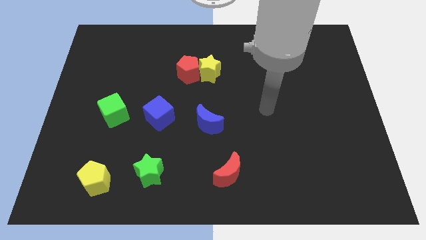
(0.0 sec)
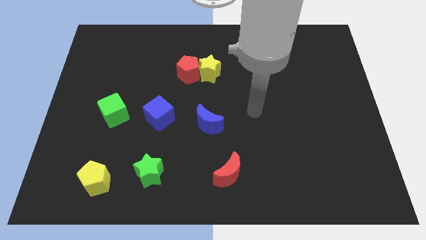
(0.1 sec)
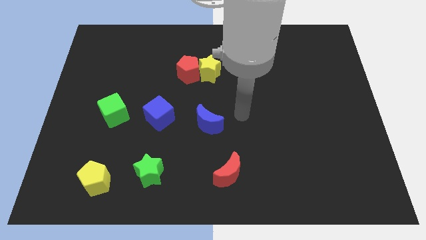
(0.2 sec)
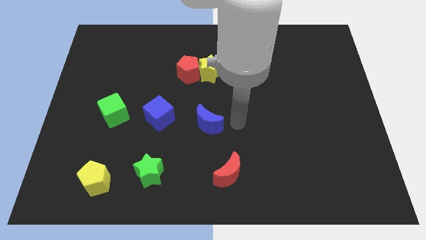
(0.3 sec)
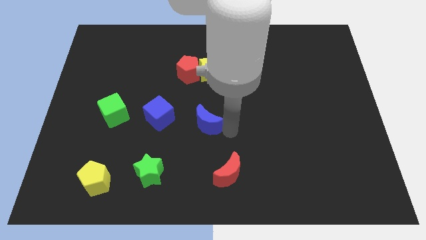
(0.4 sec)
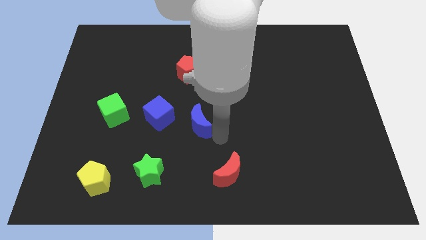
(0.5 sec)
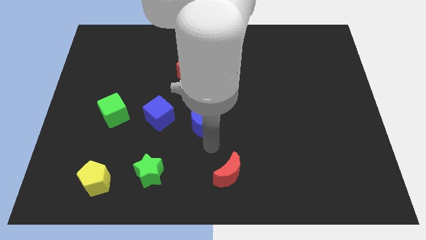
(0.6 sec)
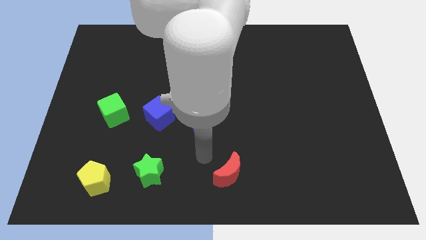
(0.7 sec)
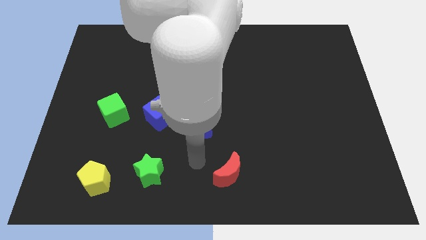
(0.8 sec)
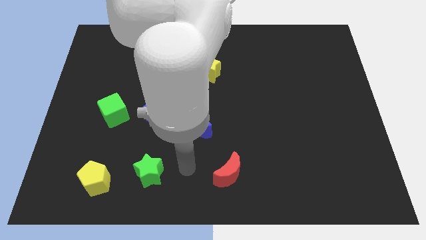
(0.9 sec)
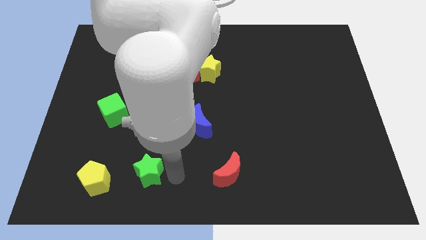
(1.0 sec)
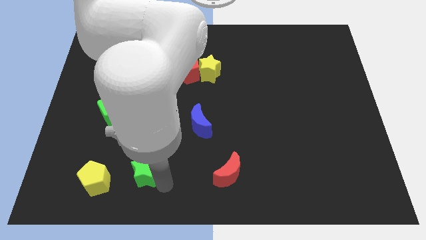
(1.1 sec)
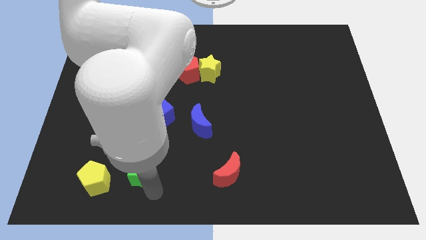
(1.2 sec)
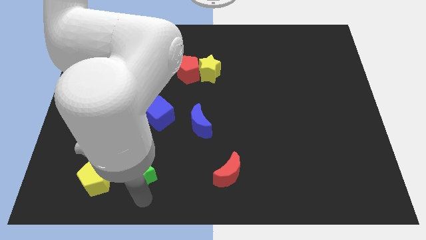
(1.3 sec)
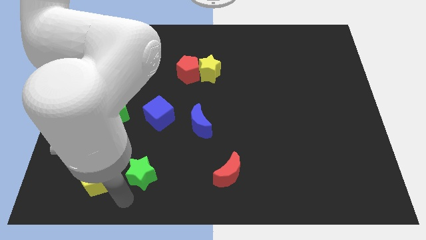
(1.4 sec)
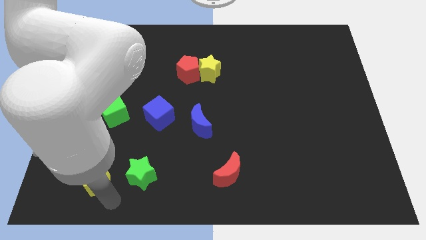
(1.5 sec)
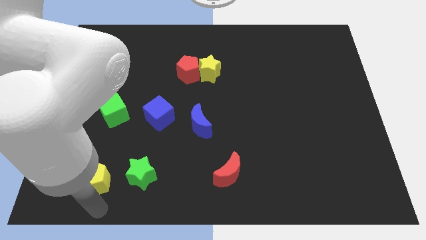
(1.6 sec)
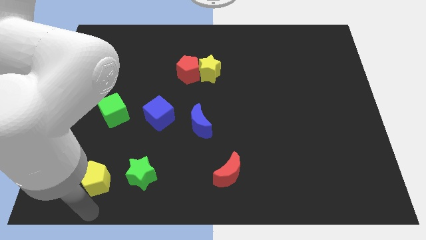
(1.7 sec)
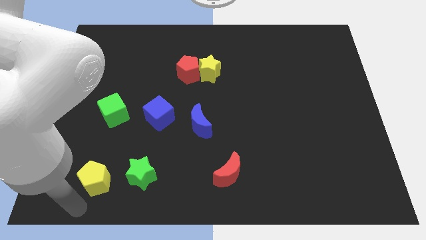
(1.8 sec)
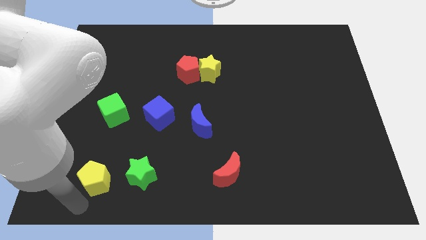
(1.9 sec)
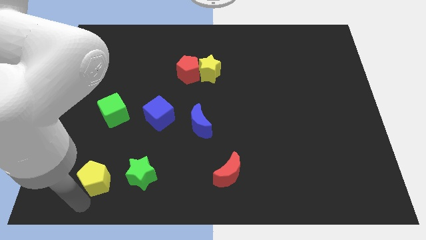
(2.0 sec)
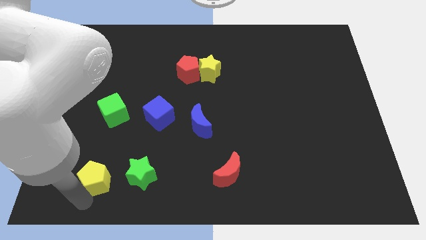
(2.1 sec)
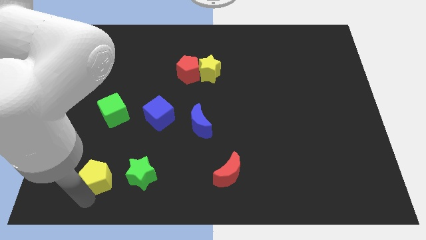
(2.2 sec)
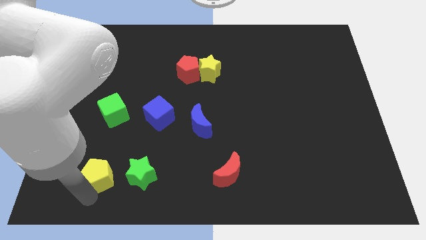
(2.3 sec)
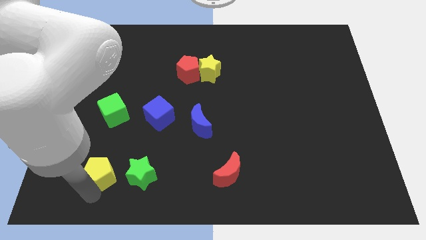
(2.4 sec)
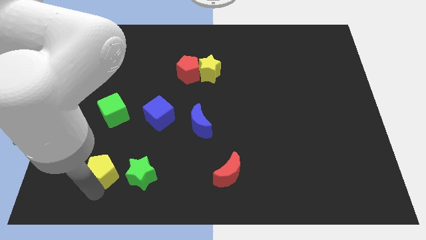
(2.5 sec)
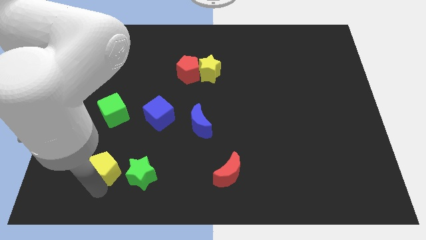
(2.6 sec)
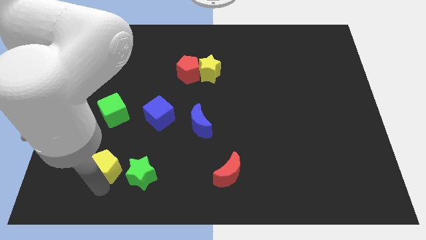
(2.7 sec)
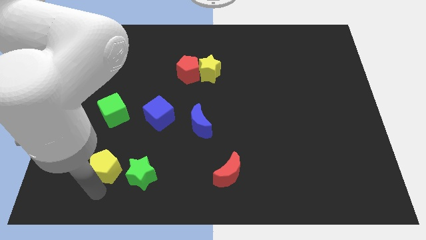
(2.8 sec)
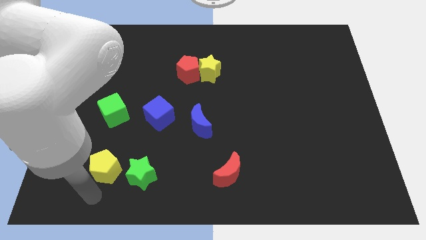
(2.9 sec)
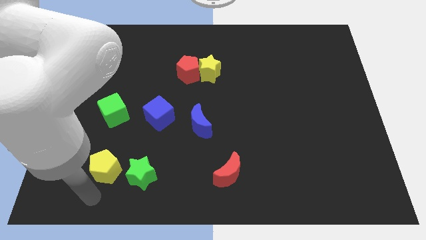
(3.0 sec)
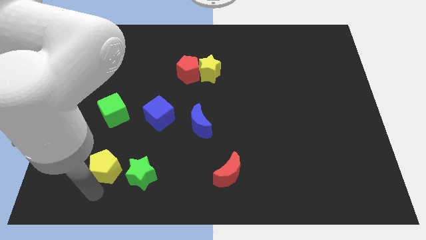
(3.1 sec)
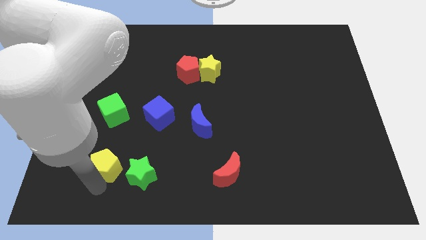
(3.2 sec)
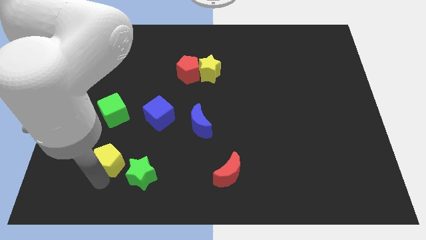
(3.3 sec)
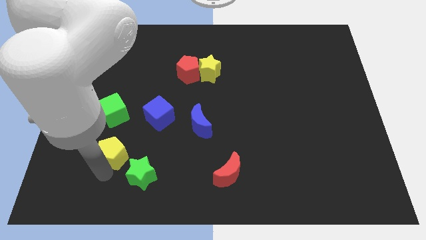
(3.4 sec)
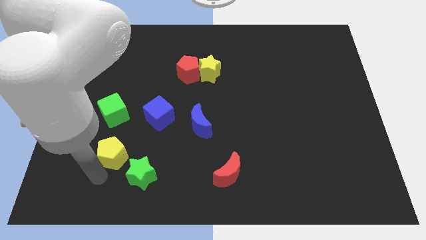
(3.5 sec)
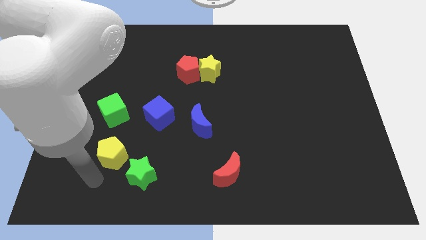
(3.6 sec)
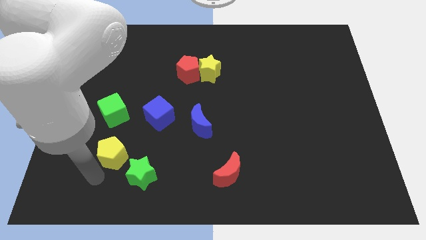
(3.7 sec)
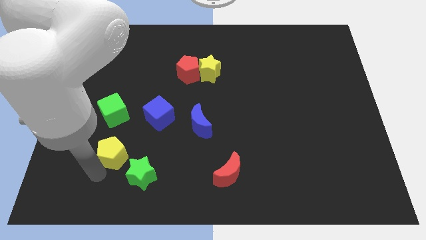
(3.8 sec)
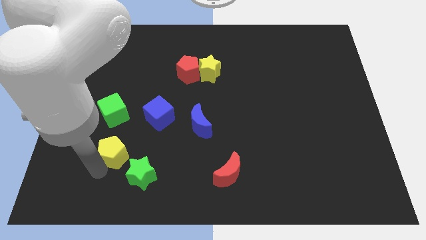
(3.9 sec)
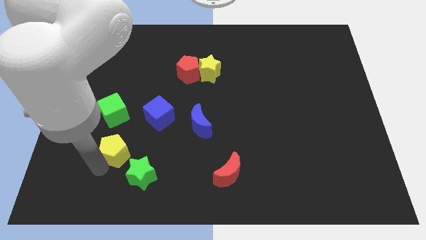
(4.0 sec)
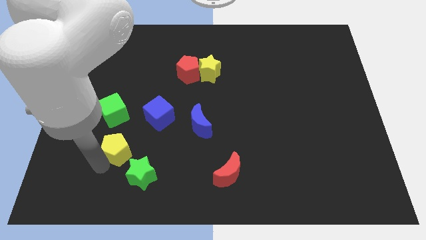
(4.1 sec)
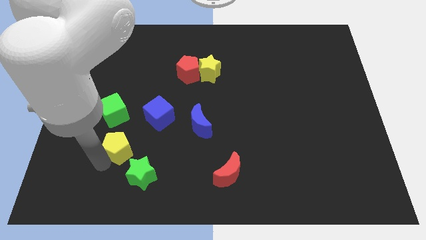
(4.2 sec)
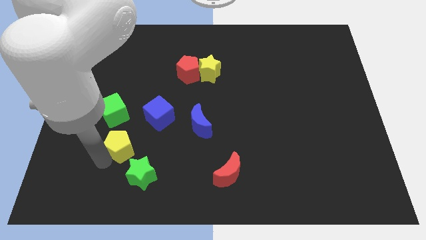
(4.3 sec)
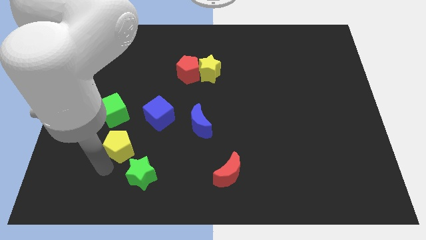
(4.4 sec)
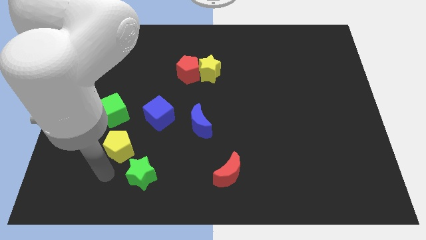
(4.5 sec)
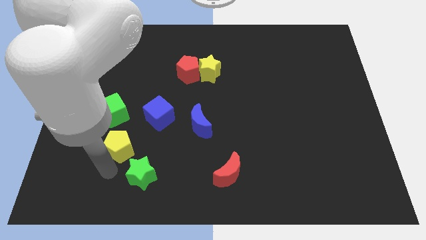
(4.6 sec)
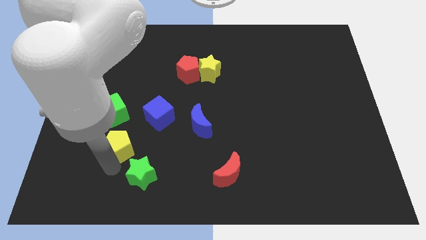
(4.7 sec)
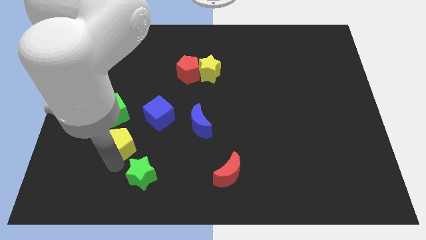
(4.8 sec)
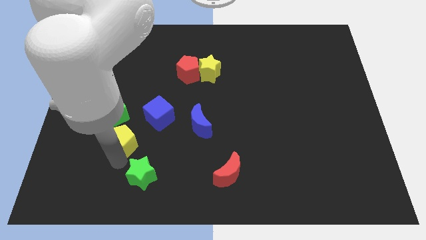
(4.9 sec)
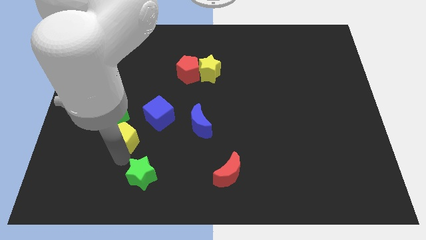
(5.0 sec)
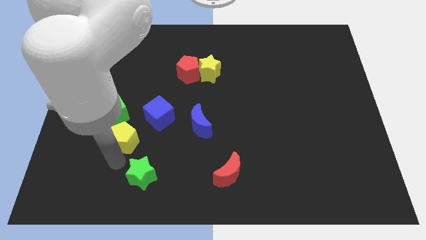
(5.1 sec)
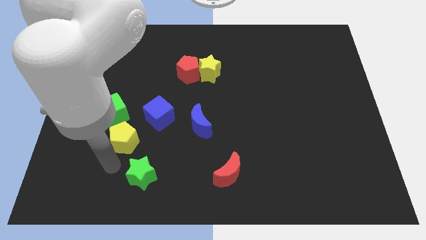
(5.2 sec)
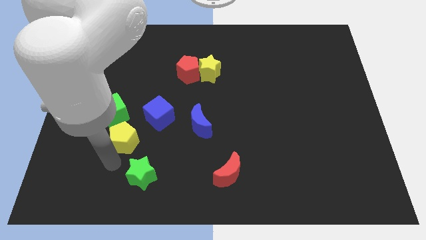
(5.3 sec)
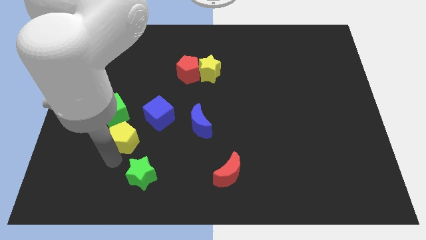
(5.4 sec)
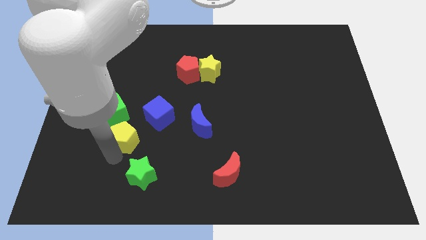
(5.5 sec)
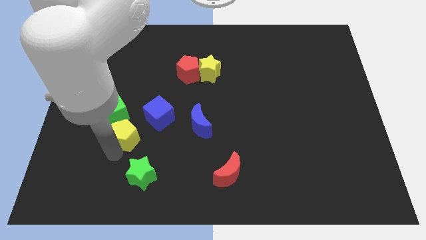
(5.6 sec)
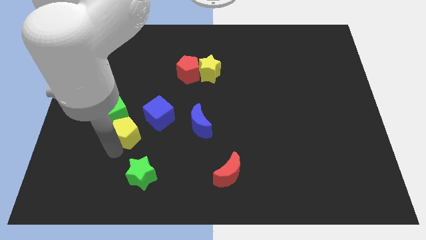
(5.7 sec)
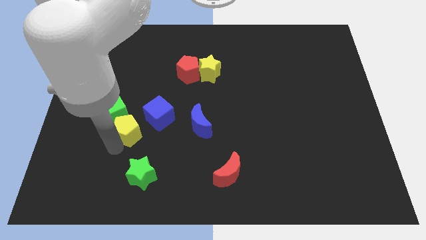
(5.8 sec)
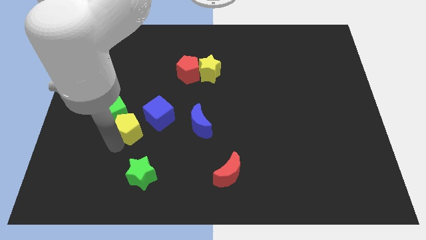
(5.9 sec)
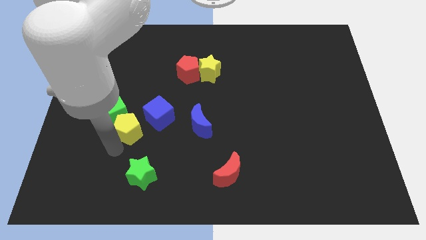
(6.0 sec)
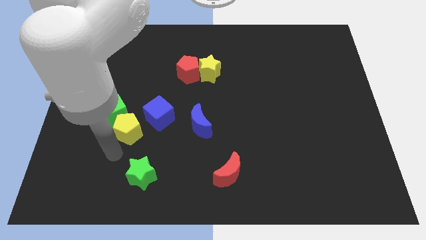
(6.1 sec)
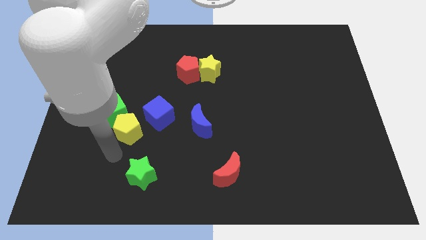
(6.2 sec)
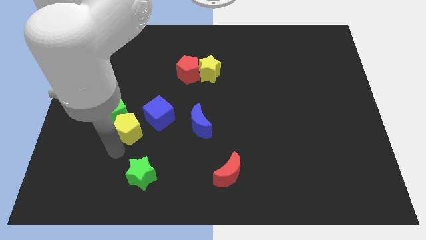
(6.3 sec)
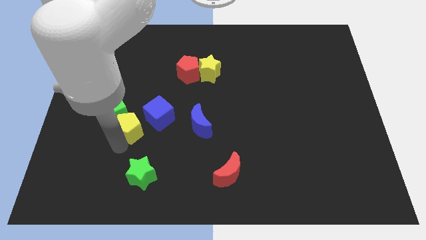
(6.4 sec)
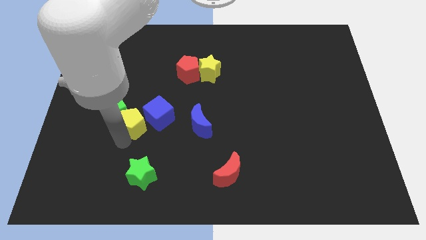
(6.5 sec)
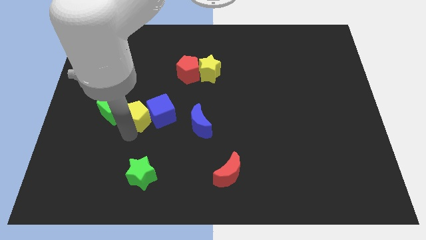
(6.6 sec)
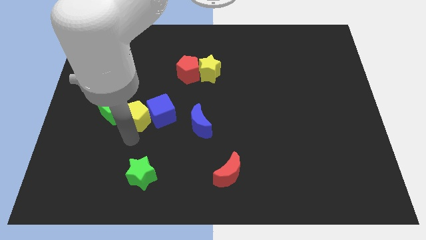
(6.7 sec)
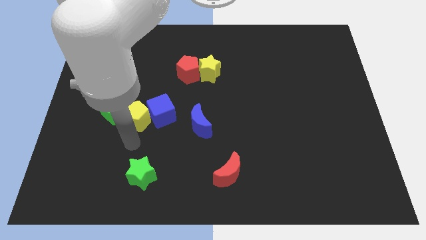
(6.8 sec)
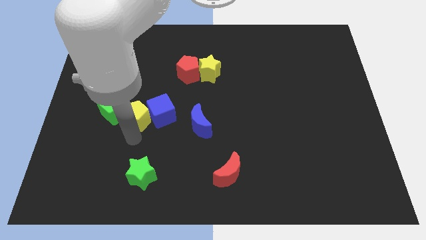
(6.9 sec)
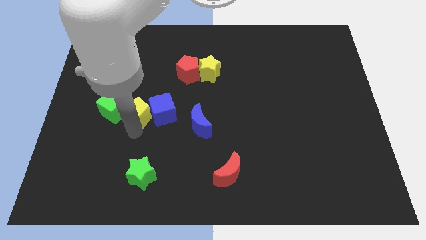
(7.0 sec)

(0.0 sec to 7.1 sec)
put the yellow pentagon to the top left of the blue cube
